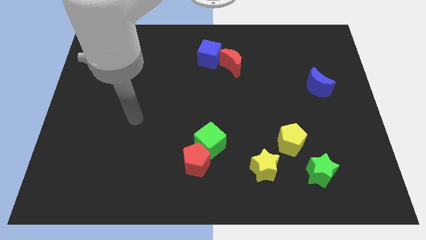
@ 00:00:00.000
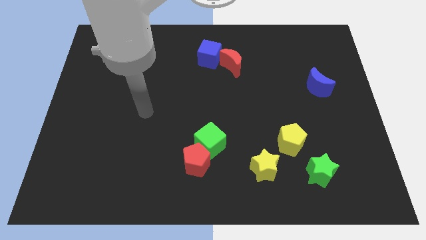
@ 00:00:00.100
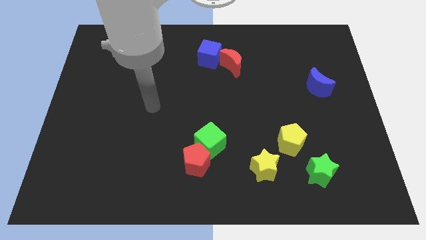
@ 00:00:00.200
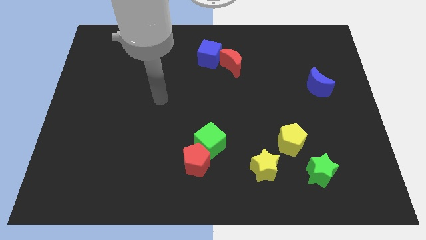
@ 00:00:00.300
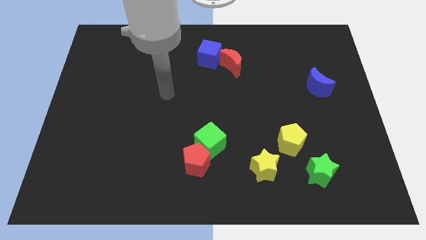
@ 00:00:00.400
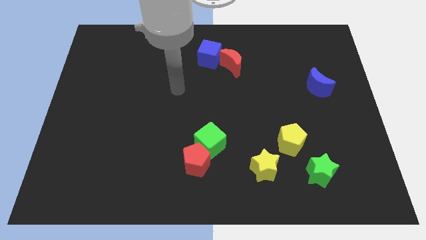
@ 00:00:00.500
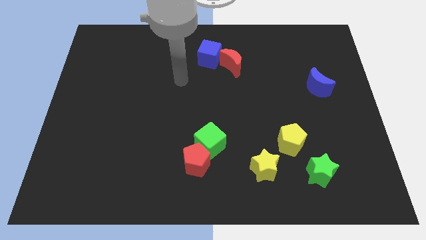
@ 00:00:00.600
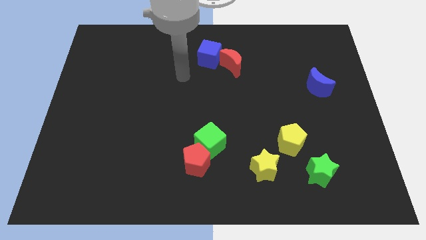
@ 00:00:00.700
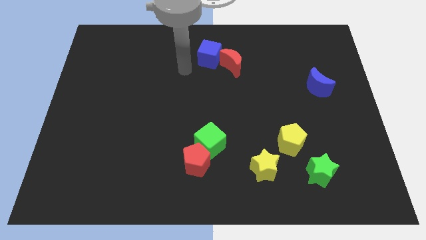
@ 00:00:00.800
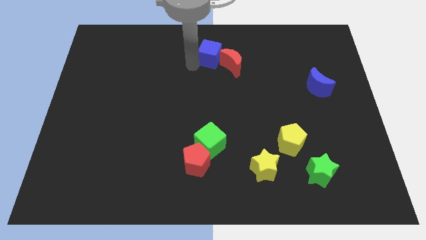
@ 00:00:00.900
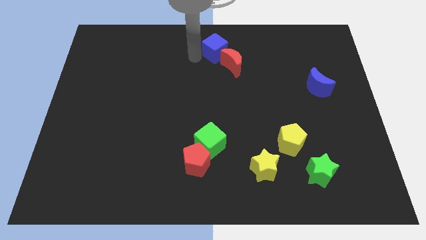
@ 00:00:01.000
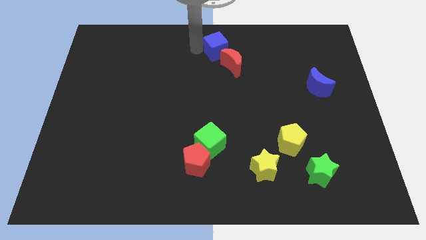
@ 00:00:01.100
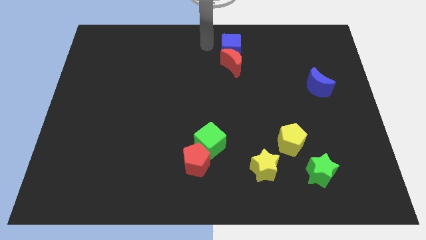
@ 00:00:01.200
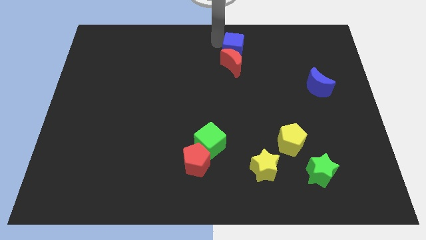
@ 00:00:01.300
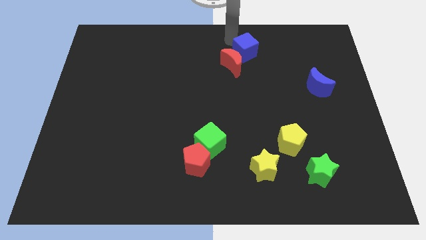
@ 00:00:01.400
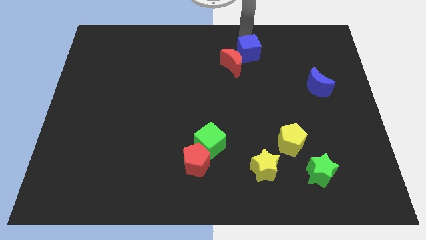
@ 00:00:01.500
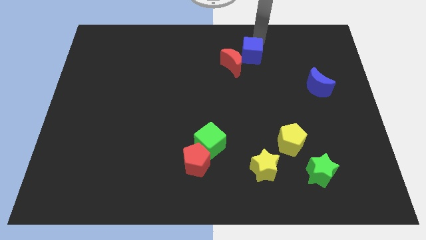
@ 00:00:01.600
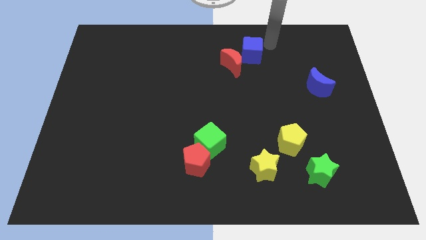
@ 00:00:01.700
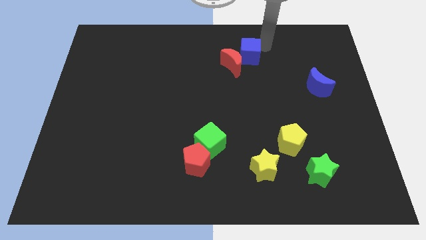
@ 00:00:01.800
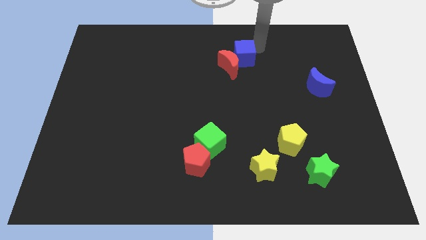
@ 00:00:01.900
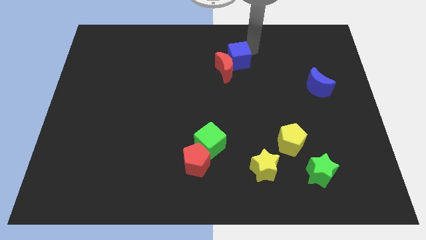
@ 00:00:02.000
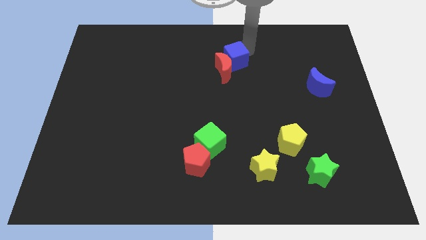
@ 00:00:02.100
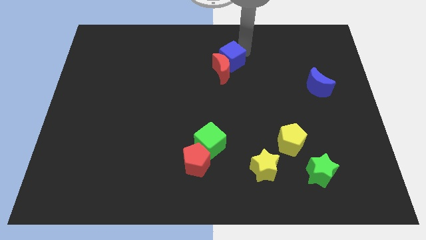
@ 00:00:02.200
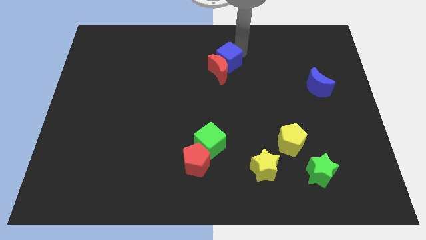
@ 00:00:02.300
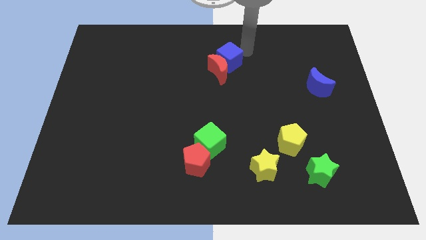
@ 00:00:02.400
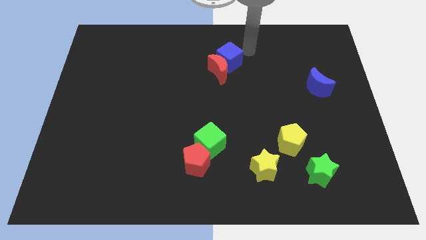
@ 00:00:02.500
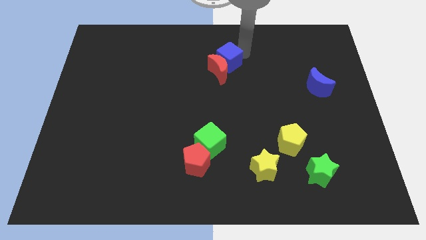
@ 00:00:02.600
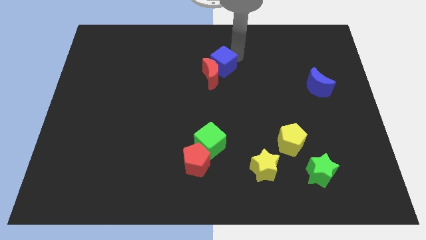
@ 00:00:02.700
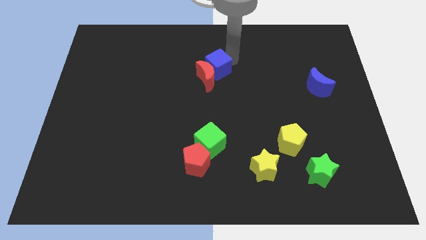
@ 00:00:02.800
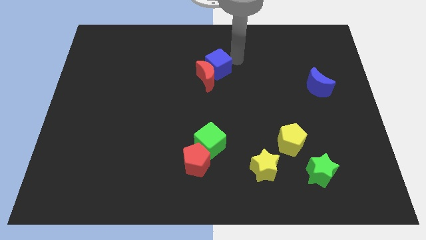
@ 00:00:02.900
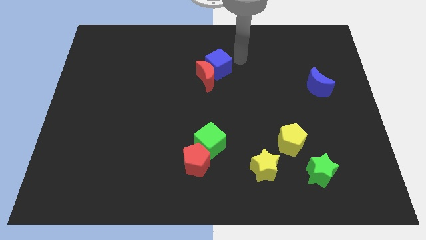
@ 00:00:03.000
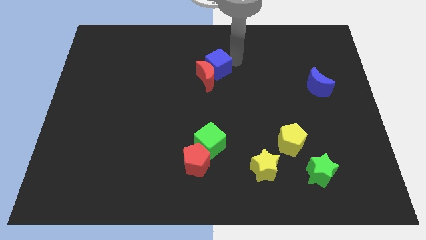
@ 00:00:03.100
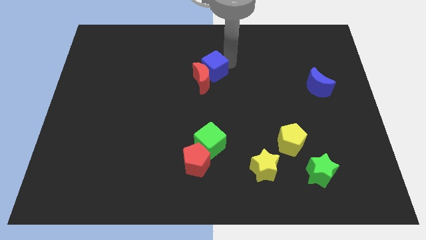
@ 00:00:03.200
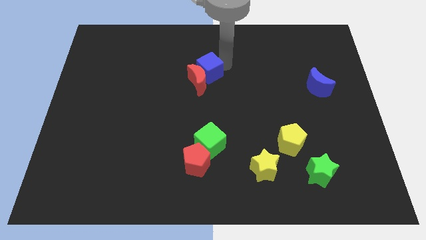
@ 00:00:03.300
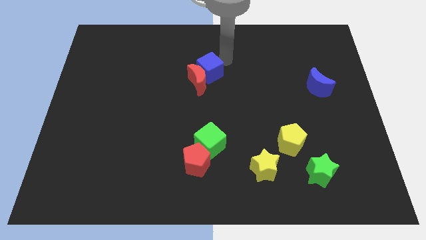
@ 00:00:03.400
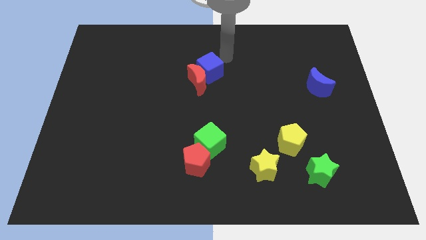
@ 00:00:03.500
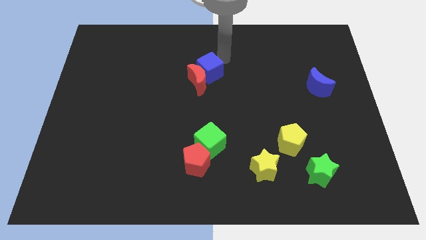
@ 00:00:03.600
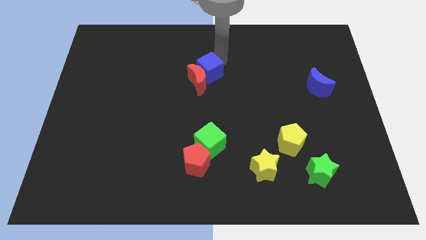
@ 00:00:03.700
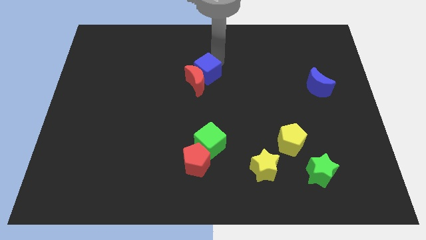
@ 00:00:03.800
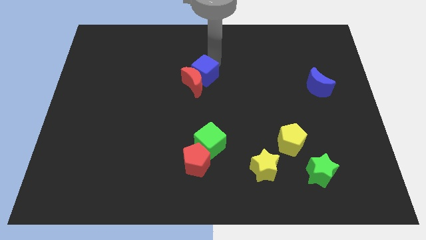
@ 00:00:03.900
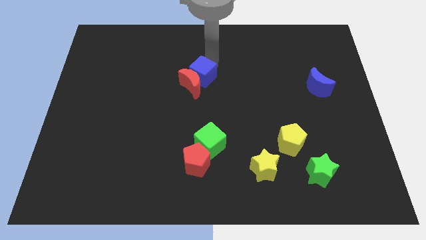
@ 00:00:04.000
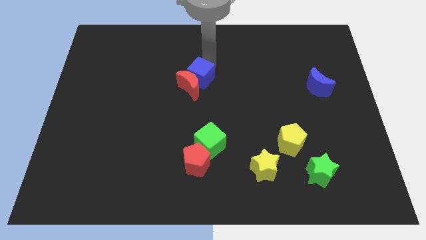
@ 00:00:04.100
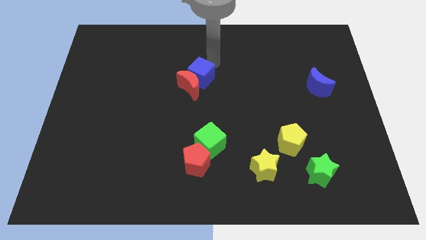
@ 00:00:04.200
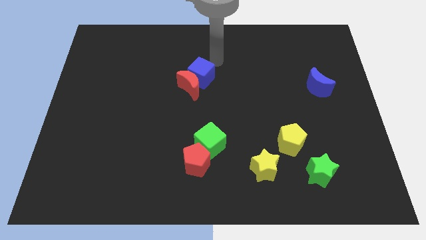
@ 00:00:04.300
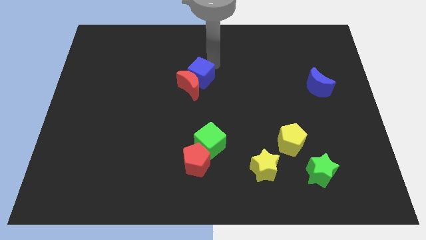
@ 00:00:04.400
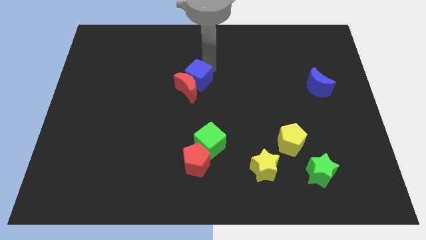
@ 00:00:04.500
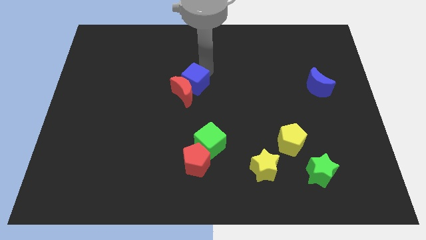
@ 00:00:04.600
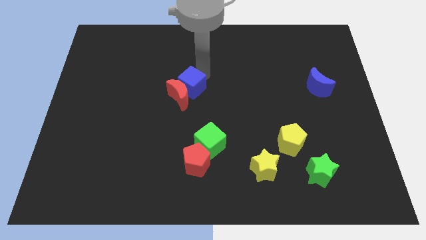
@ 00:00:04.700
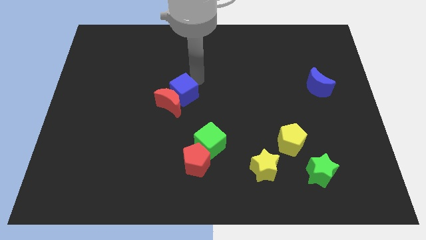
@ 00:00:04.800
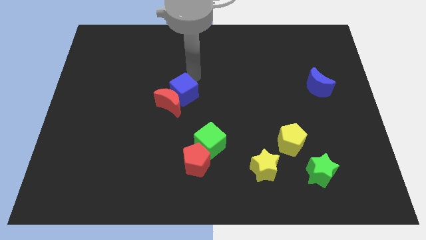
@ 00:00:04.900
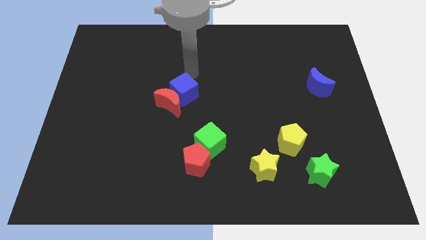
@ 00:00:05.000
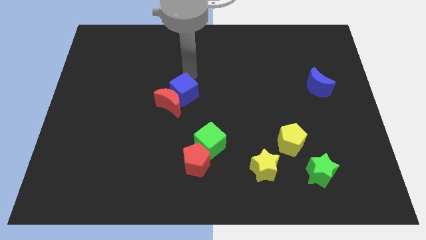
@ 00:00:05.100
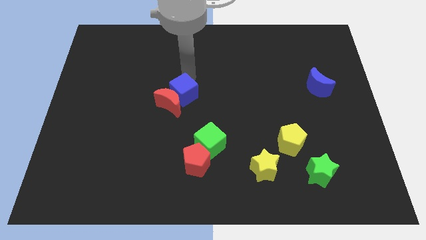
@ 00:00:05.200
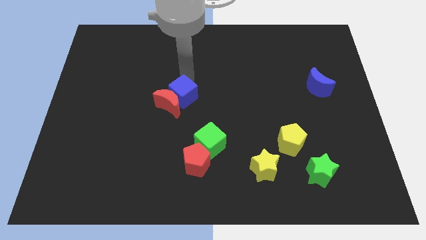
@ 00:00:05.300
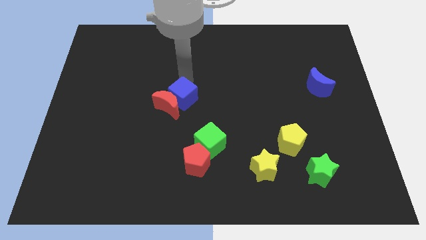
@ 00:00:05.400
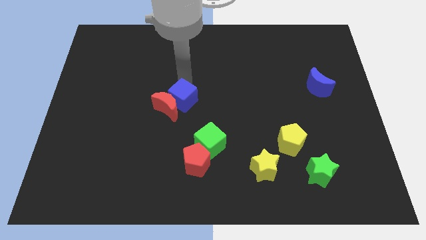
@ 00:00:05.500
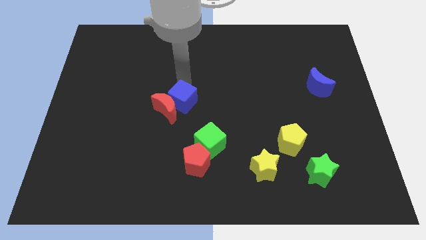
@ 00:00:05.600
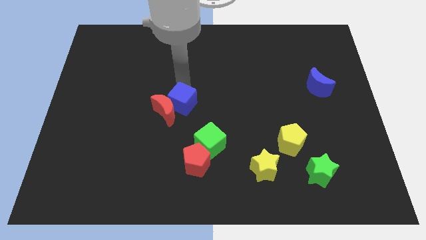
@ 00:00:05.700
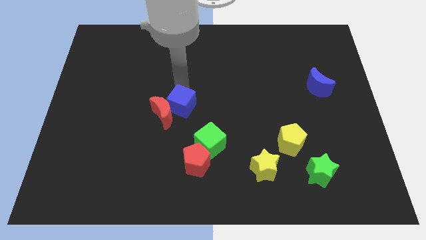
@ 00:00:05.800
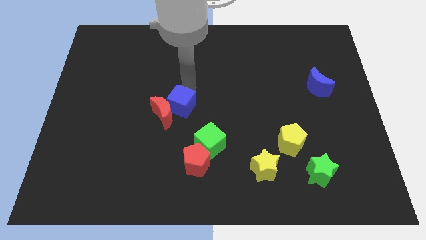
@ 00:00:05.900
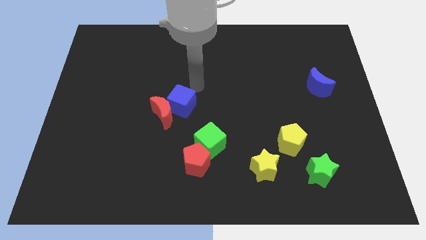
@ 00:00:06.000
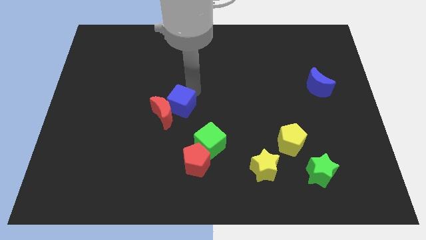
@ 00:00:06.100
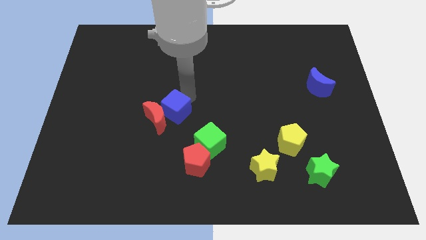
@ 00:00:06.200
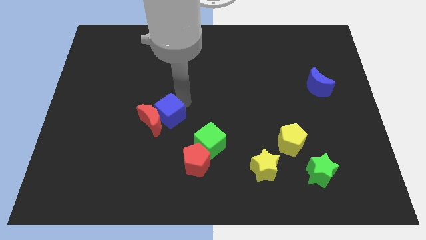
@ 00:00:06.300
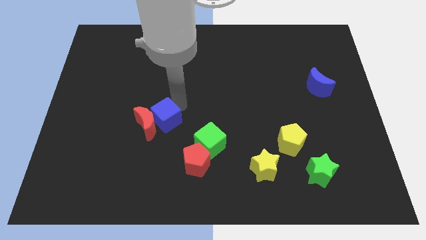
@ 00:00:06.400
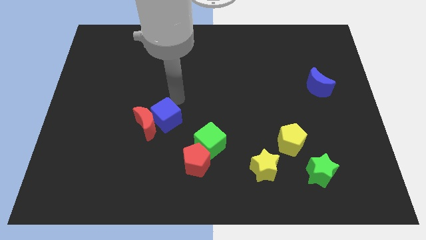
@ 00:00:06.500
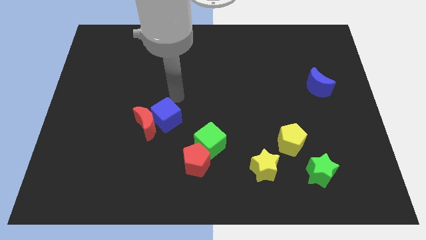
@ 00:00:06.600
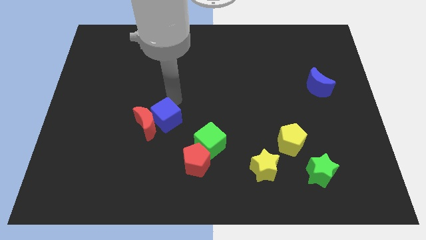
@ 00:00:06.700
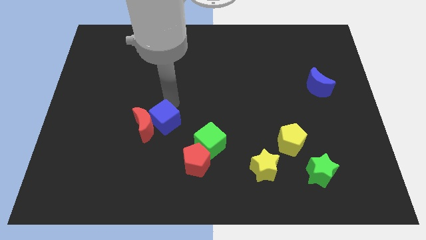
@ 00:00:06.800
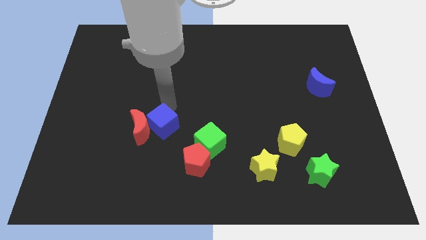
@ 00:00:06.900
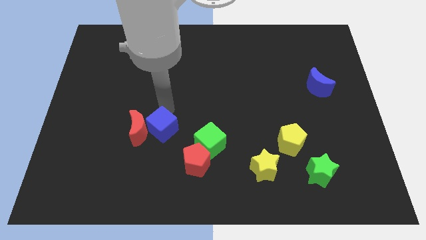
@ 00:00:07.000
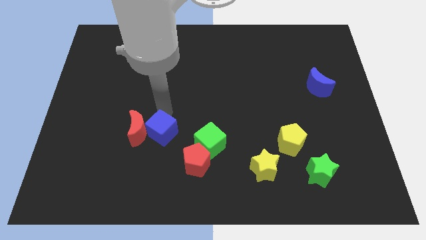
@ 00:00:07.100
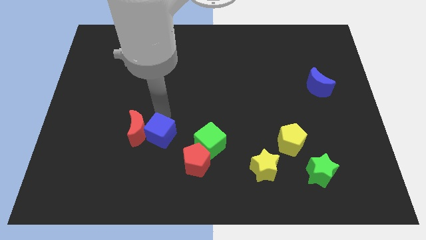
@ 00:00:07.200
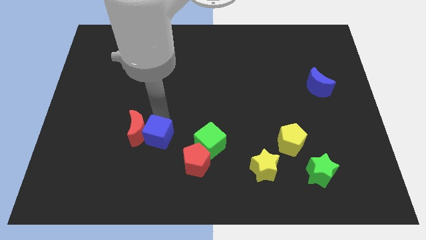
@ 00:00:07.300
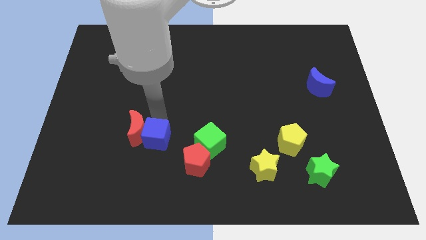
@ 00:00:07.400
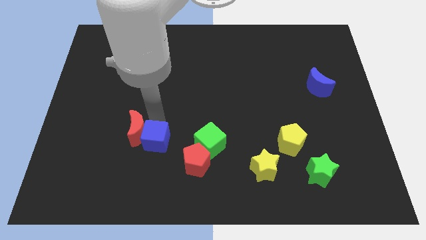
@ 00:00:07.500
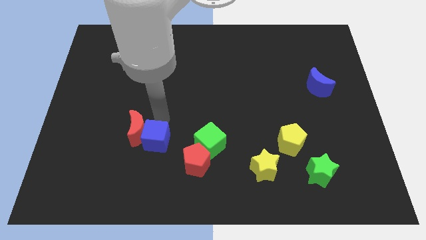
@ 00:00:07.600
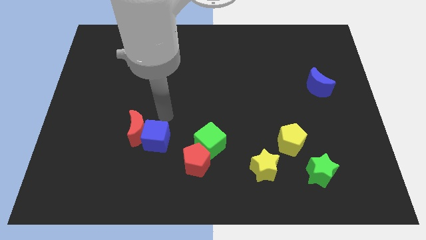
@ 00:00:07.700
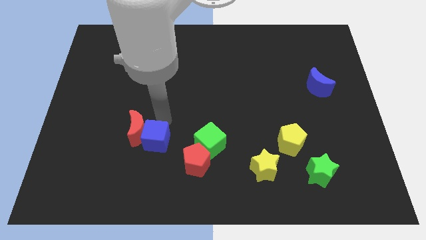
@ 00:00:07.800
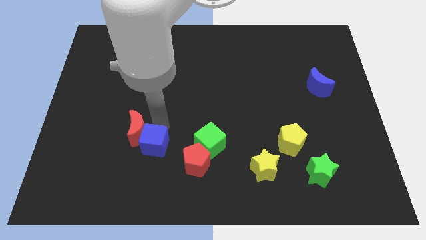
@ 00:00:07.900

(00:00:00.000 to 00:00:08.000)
move the blue cube to the left of the red pentagon
